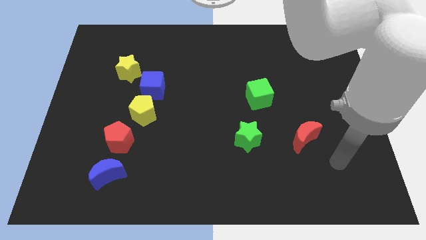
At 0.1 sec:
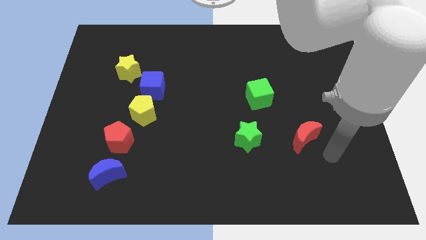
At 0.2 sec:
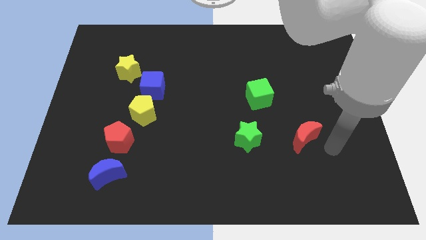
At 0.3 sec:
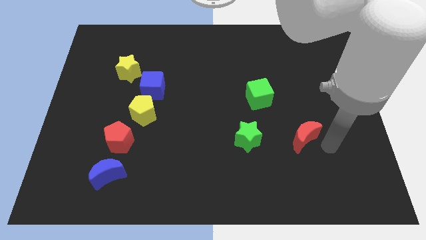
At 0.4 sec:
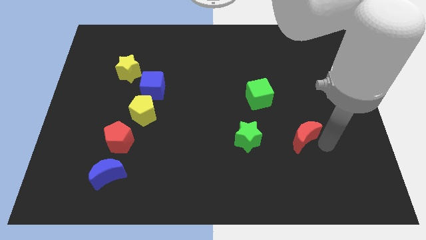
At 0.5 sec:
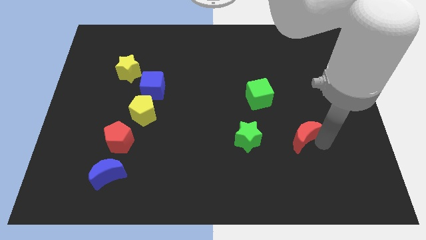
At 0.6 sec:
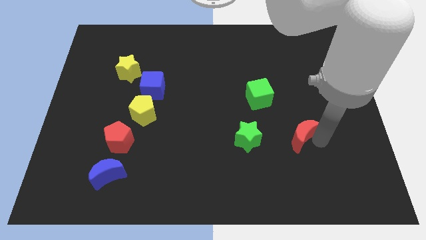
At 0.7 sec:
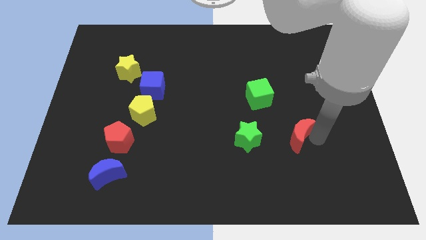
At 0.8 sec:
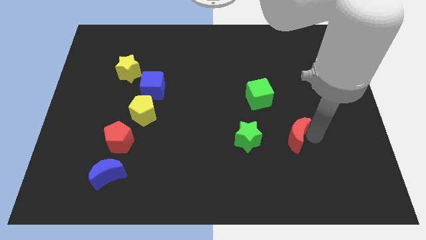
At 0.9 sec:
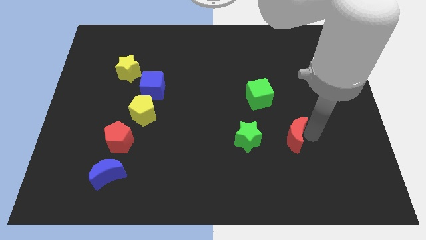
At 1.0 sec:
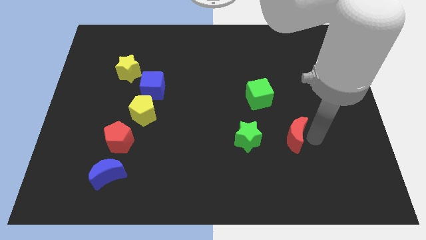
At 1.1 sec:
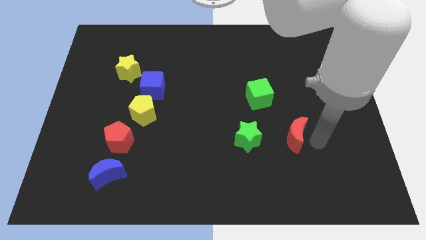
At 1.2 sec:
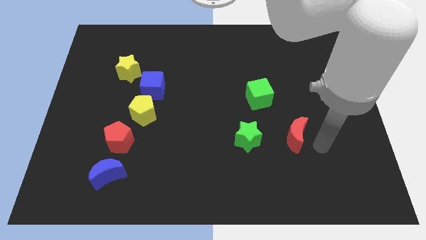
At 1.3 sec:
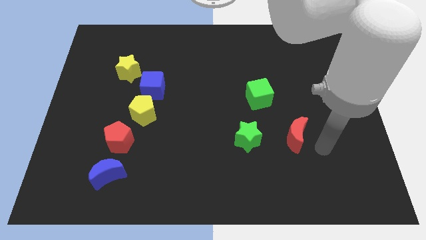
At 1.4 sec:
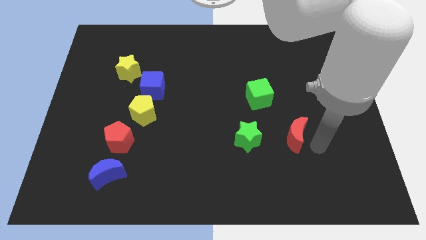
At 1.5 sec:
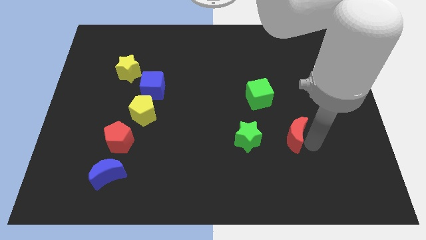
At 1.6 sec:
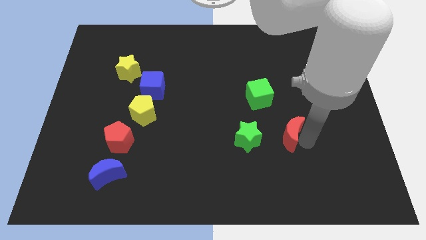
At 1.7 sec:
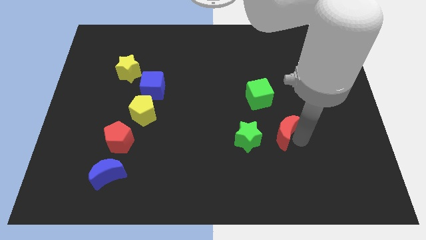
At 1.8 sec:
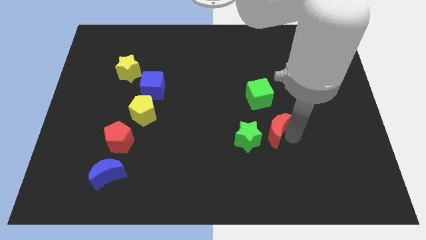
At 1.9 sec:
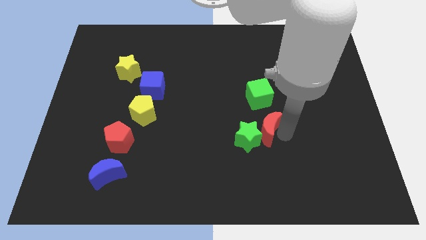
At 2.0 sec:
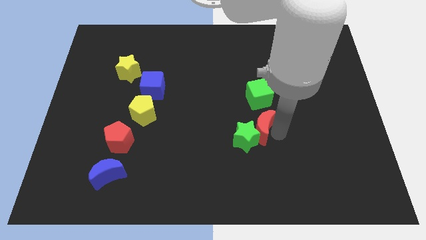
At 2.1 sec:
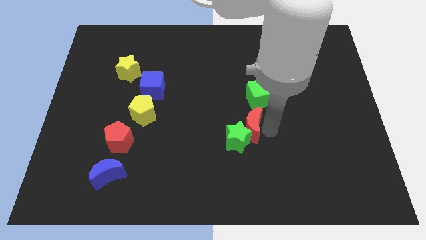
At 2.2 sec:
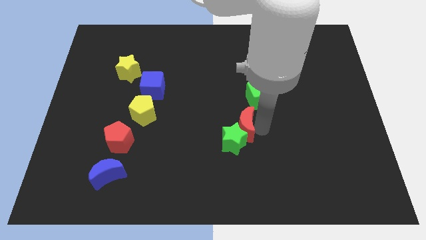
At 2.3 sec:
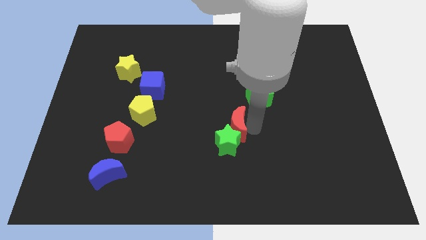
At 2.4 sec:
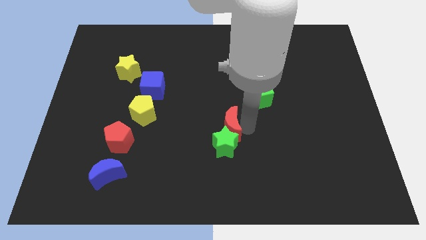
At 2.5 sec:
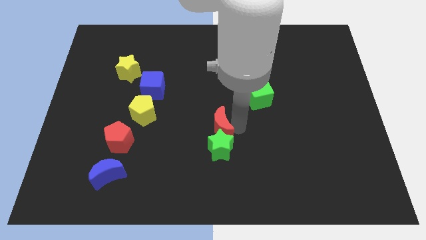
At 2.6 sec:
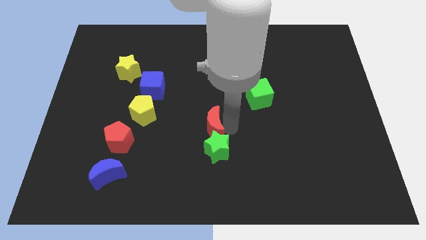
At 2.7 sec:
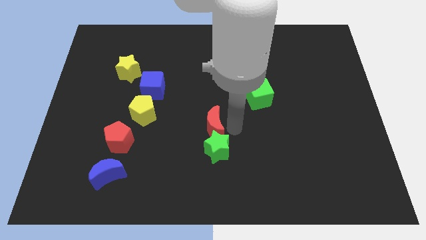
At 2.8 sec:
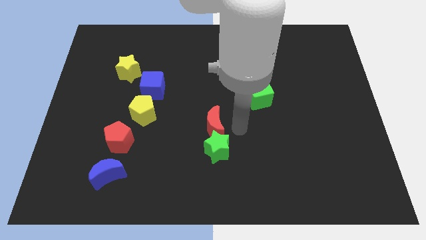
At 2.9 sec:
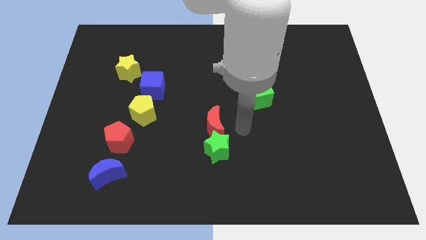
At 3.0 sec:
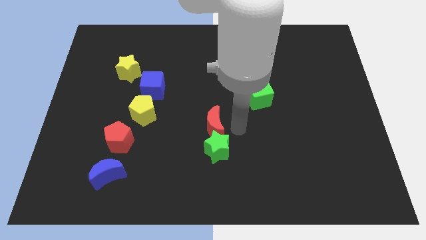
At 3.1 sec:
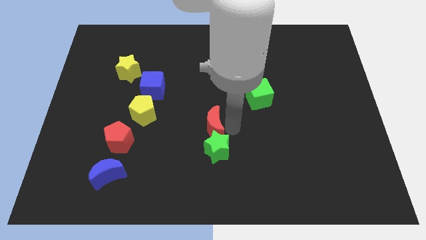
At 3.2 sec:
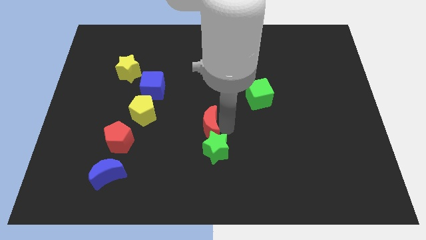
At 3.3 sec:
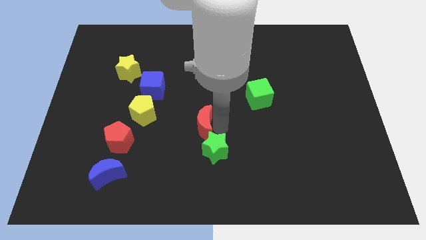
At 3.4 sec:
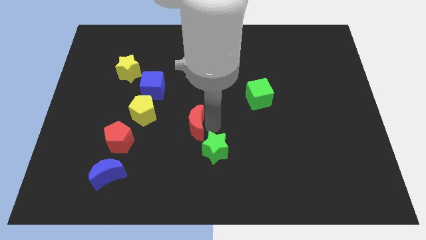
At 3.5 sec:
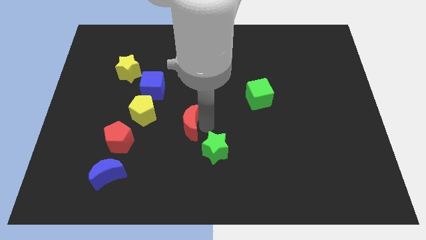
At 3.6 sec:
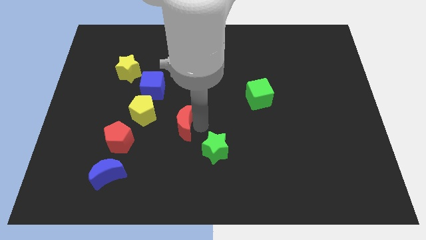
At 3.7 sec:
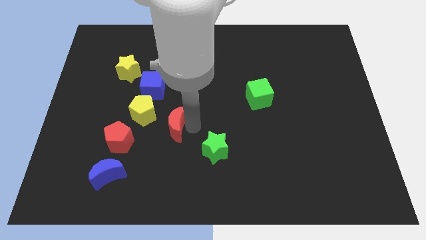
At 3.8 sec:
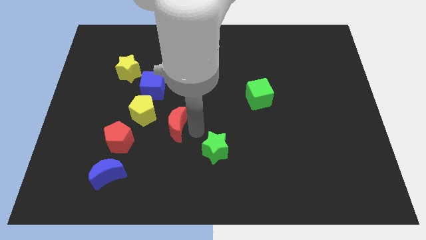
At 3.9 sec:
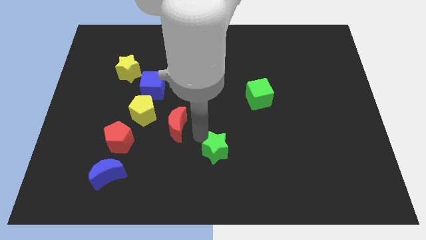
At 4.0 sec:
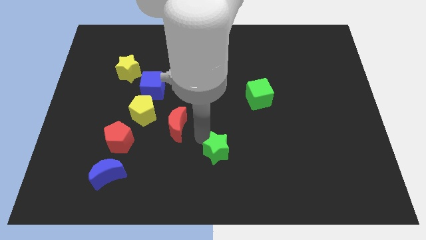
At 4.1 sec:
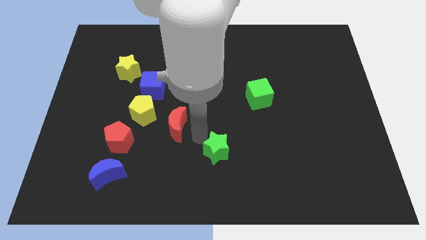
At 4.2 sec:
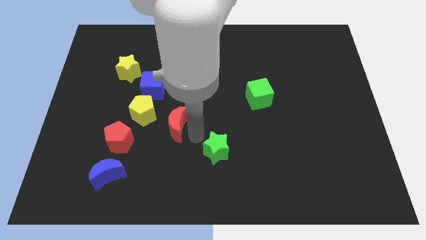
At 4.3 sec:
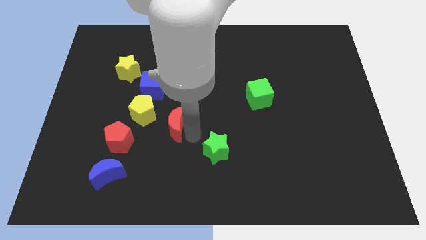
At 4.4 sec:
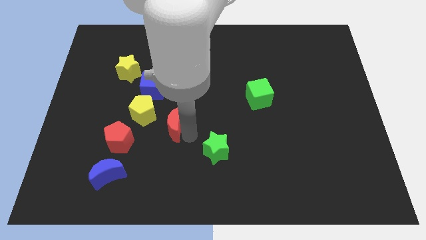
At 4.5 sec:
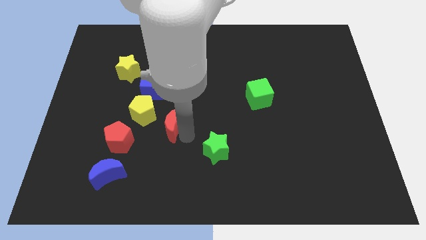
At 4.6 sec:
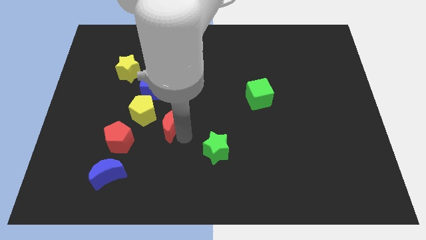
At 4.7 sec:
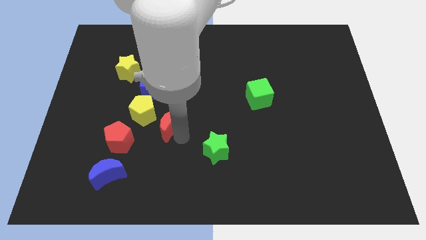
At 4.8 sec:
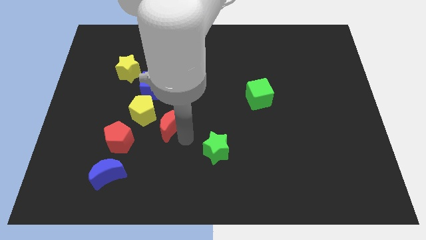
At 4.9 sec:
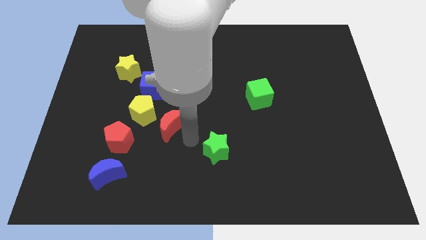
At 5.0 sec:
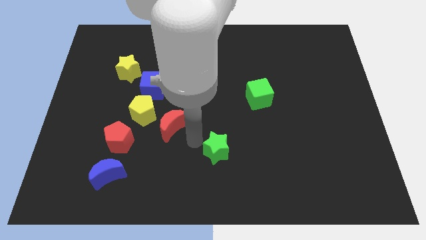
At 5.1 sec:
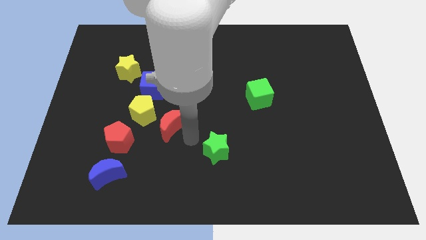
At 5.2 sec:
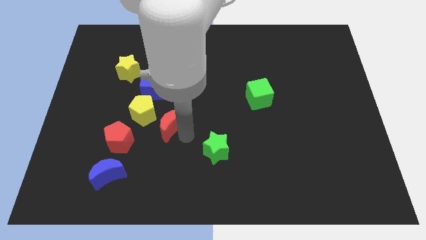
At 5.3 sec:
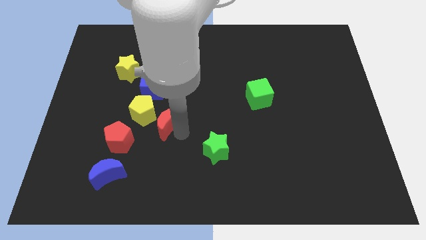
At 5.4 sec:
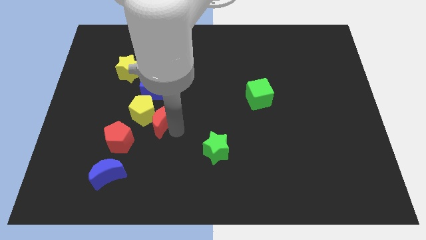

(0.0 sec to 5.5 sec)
put the red moon close to the yellow pentagon

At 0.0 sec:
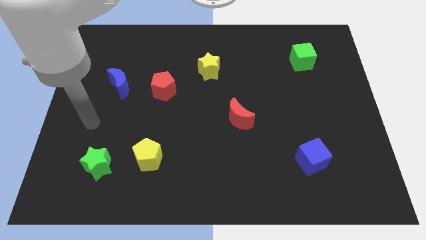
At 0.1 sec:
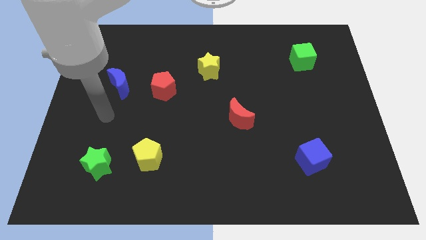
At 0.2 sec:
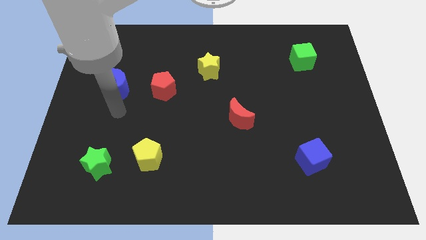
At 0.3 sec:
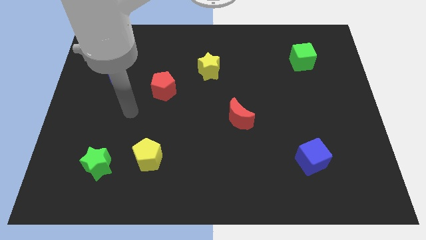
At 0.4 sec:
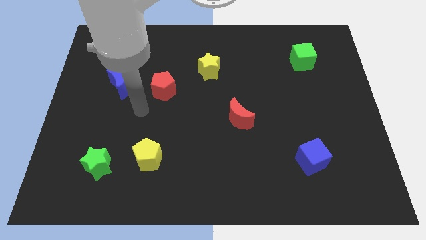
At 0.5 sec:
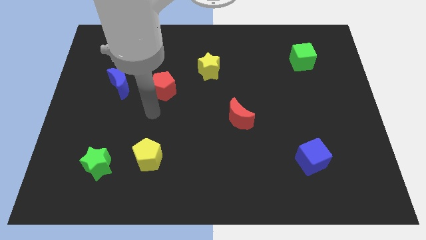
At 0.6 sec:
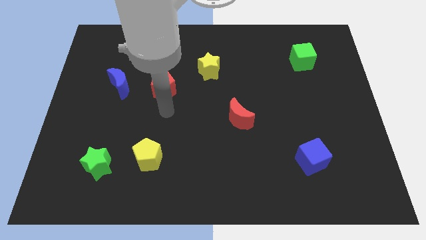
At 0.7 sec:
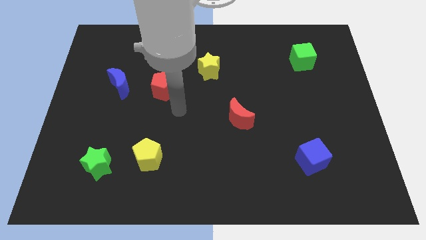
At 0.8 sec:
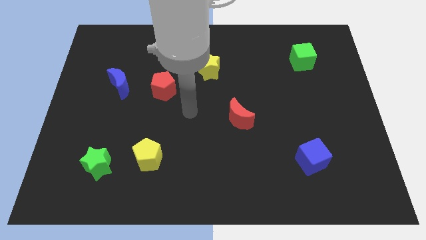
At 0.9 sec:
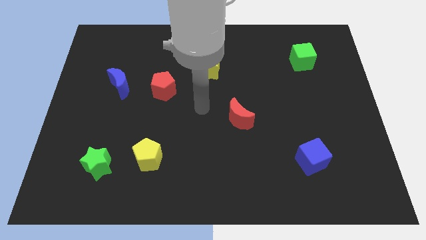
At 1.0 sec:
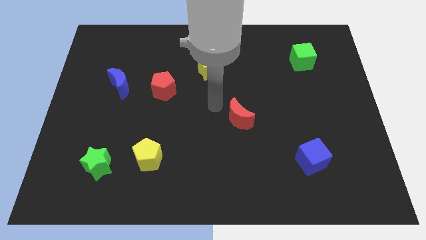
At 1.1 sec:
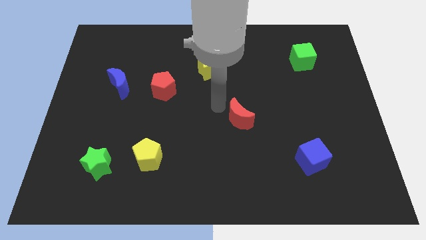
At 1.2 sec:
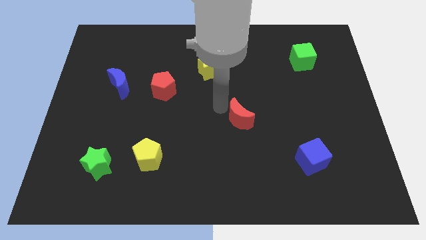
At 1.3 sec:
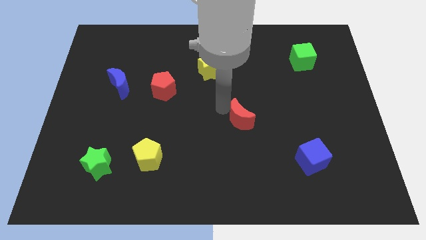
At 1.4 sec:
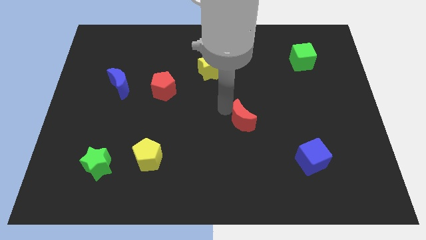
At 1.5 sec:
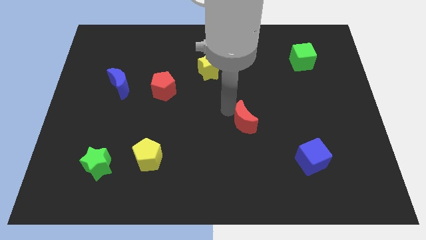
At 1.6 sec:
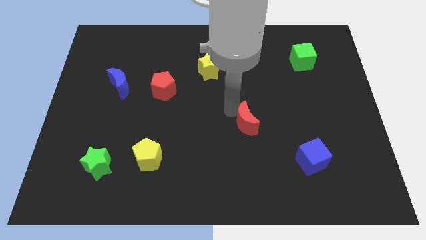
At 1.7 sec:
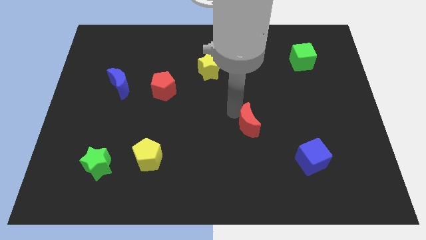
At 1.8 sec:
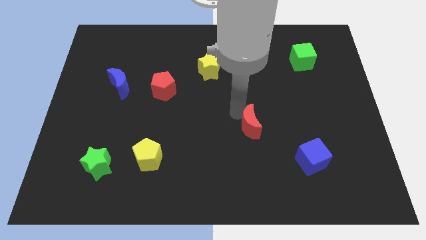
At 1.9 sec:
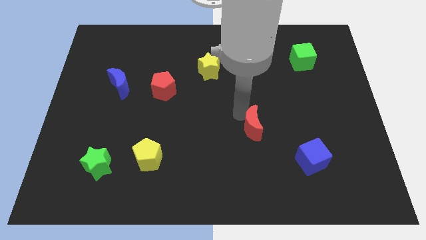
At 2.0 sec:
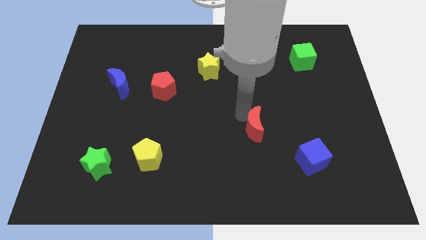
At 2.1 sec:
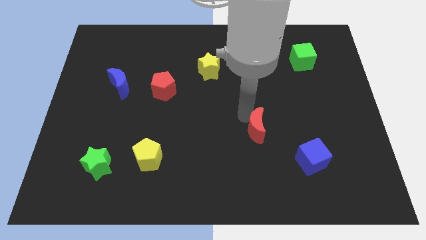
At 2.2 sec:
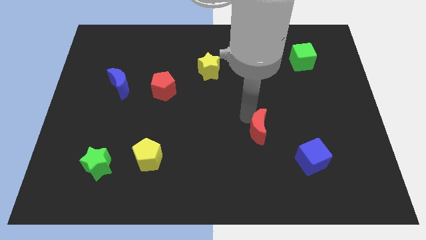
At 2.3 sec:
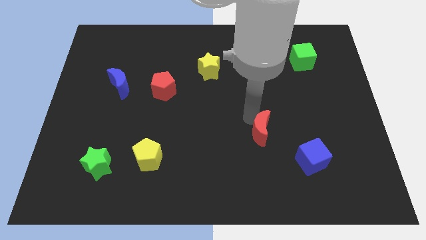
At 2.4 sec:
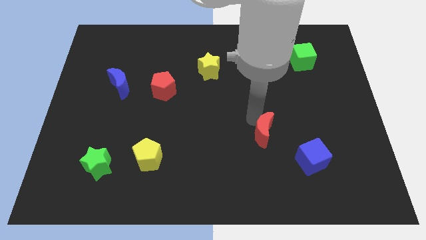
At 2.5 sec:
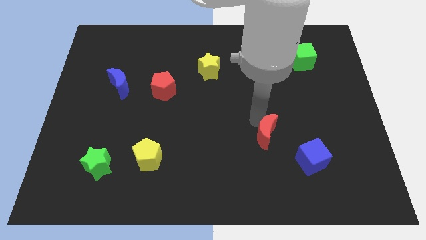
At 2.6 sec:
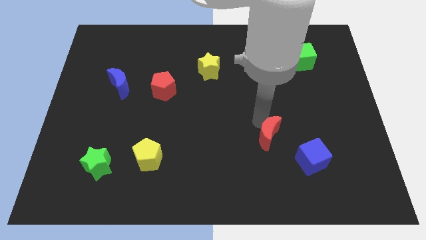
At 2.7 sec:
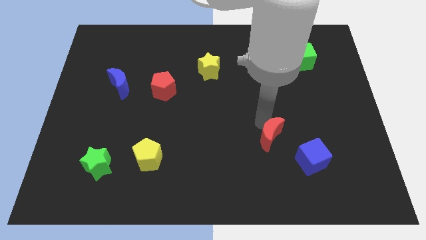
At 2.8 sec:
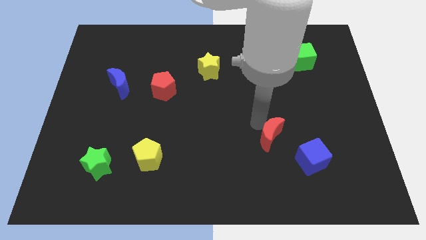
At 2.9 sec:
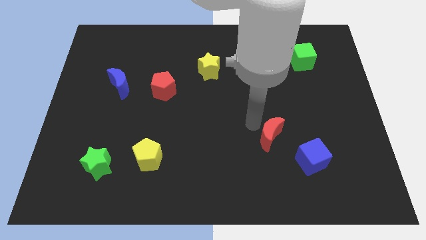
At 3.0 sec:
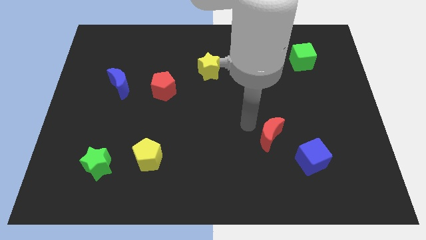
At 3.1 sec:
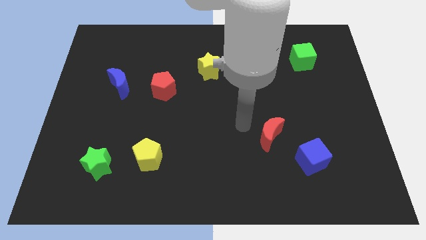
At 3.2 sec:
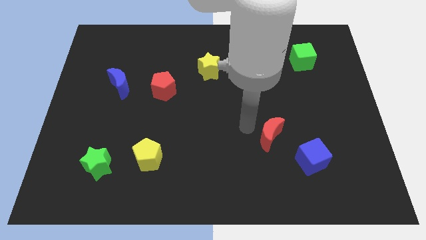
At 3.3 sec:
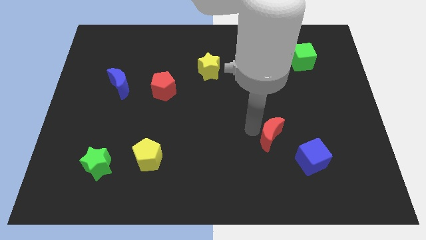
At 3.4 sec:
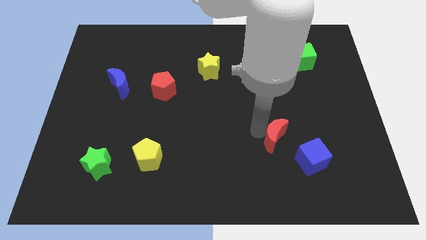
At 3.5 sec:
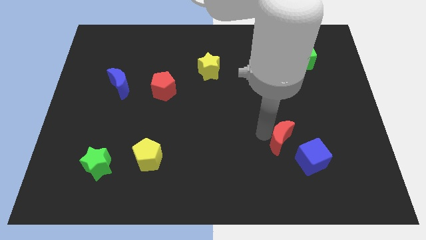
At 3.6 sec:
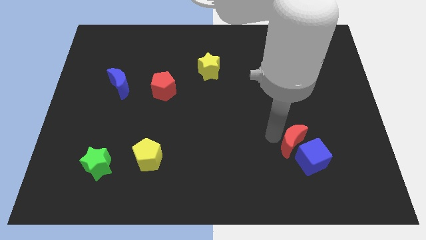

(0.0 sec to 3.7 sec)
slide the red moon towards the blue cube
